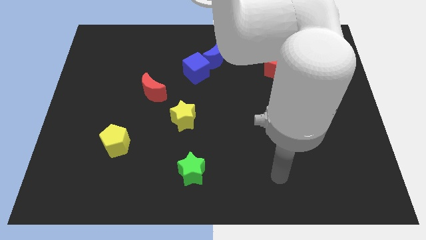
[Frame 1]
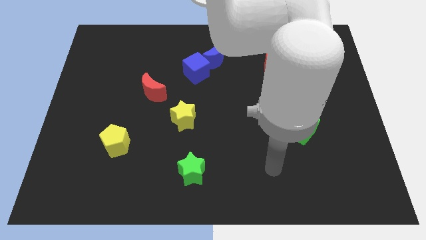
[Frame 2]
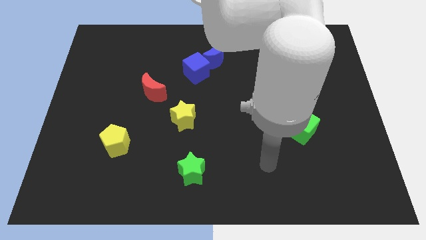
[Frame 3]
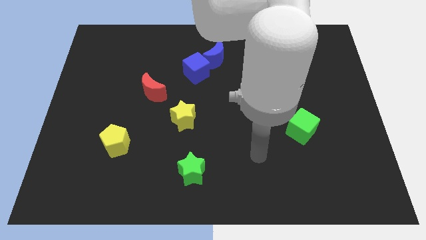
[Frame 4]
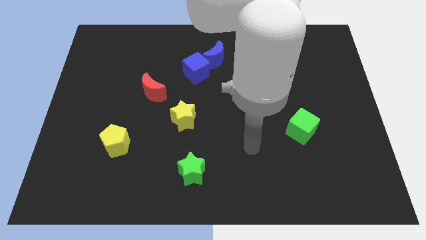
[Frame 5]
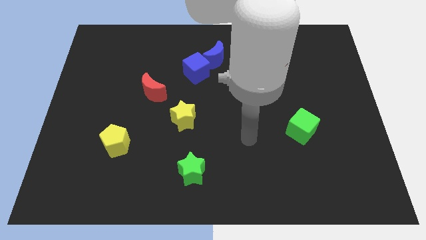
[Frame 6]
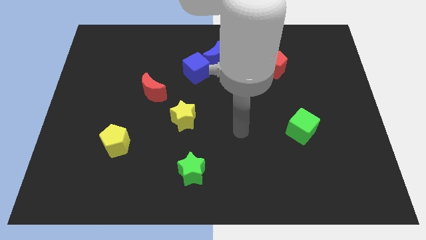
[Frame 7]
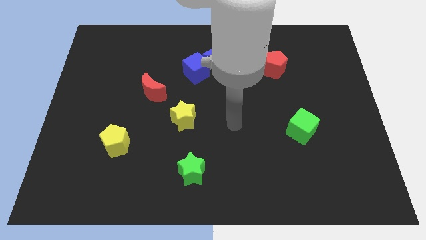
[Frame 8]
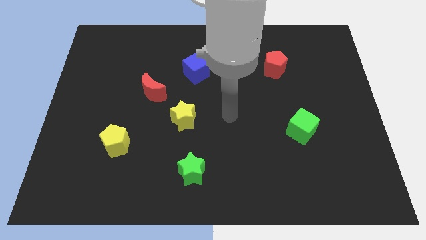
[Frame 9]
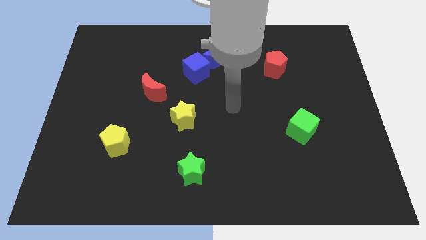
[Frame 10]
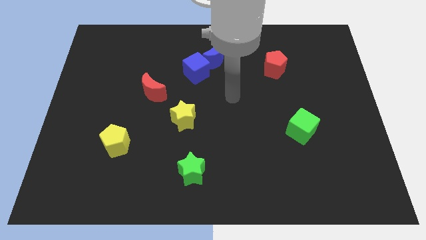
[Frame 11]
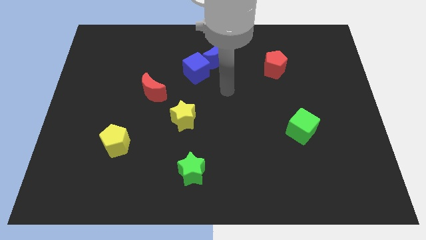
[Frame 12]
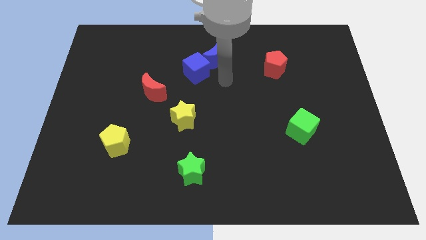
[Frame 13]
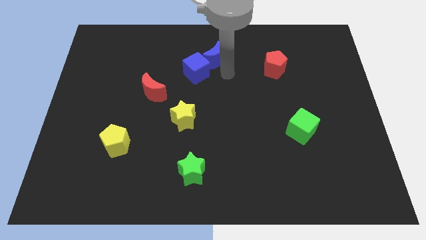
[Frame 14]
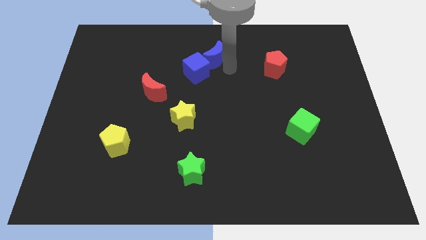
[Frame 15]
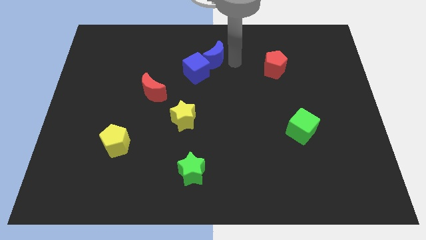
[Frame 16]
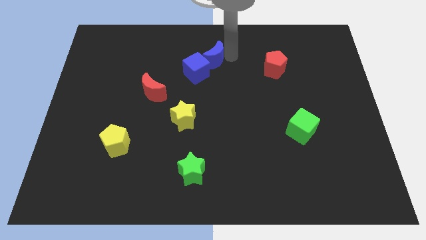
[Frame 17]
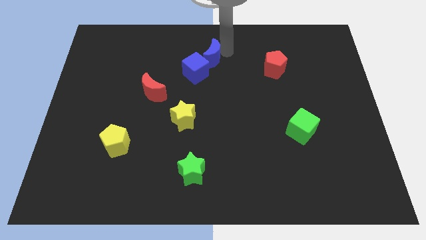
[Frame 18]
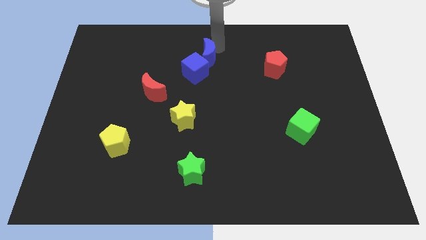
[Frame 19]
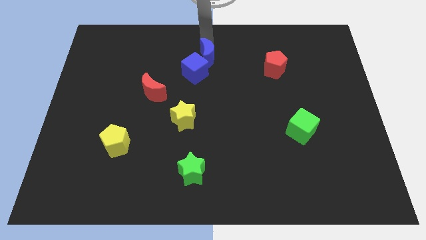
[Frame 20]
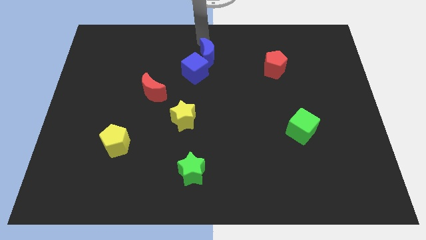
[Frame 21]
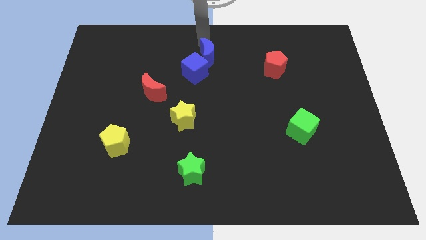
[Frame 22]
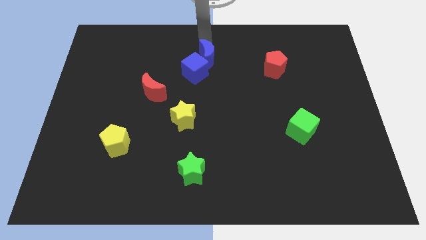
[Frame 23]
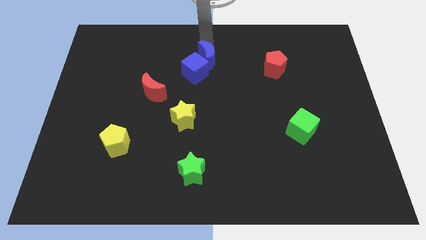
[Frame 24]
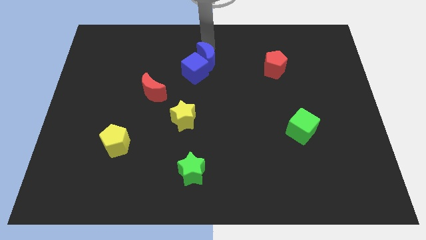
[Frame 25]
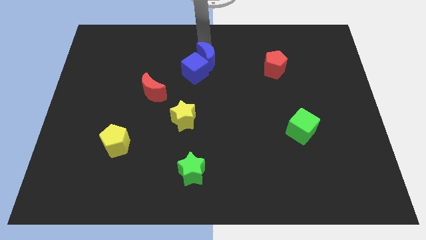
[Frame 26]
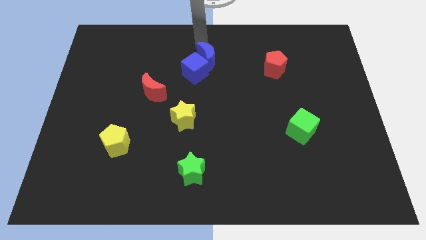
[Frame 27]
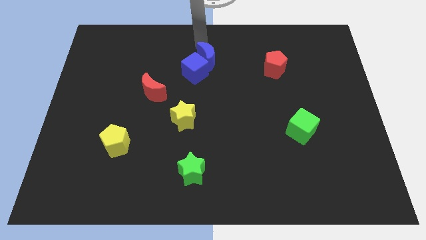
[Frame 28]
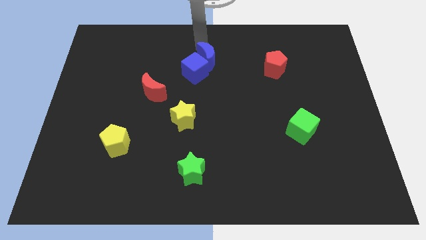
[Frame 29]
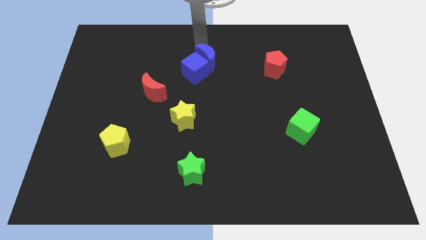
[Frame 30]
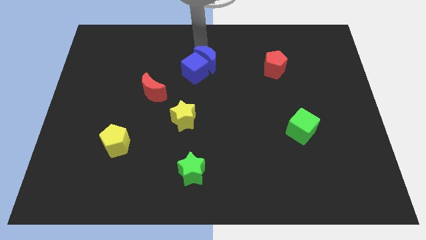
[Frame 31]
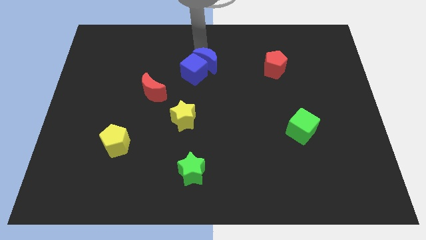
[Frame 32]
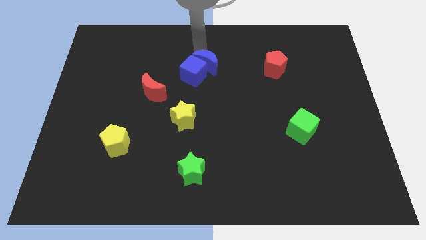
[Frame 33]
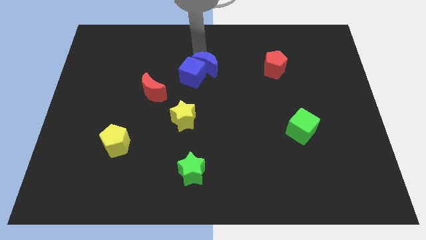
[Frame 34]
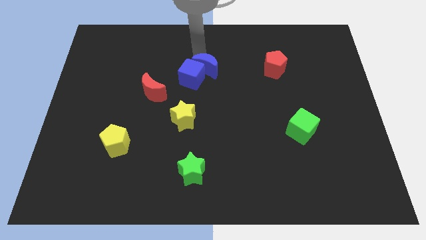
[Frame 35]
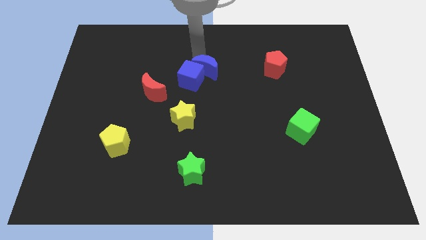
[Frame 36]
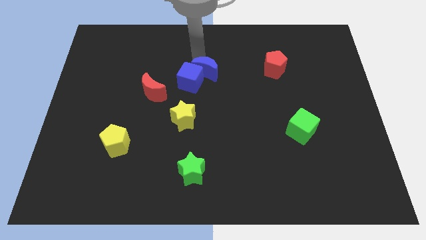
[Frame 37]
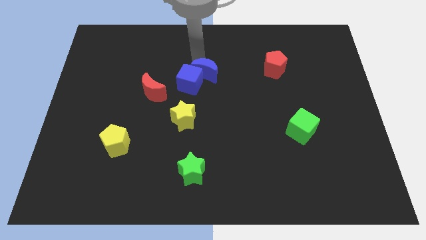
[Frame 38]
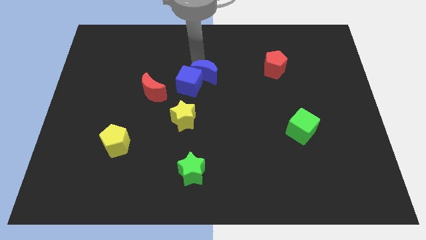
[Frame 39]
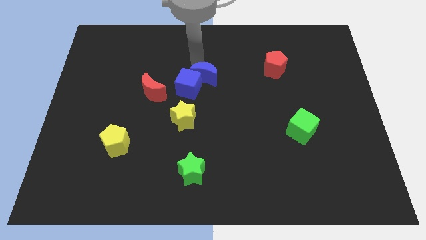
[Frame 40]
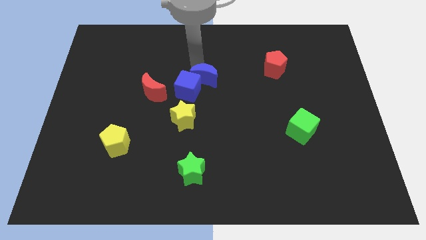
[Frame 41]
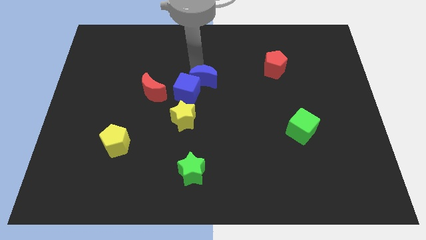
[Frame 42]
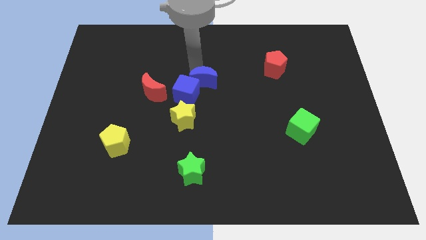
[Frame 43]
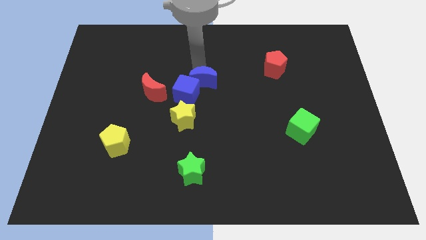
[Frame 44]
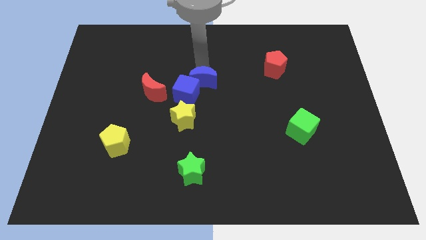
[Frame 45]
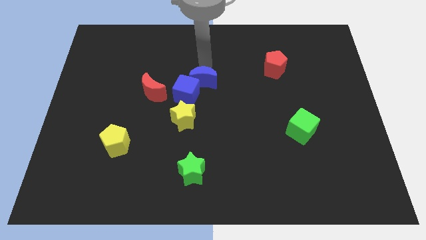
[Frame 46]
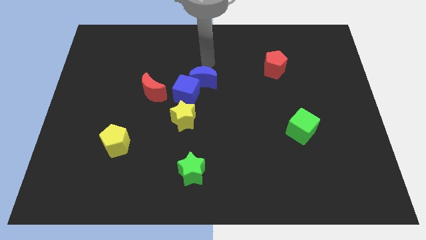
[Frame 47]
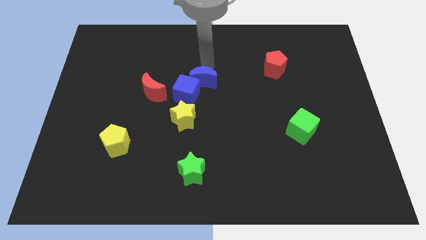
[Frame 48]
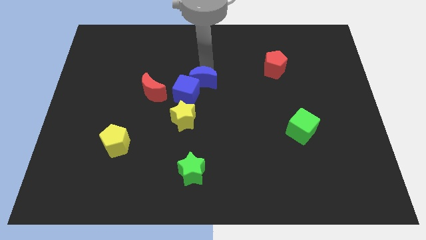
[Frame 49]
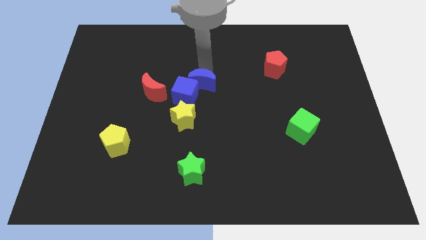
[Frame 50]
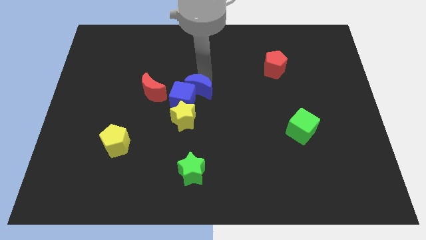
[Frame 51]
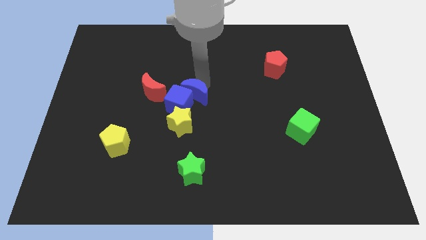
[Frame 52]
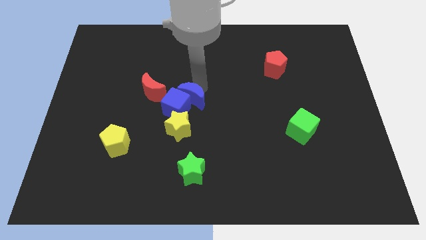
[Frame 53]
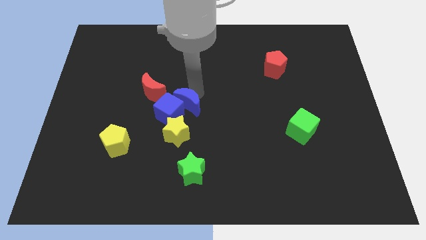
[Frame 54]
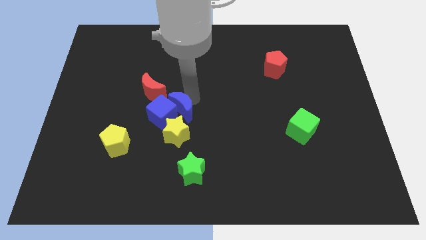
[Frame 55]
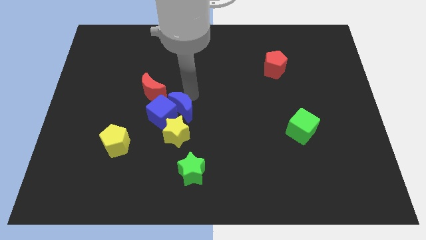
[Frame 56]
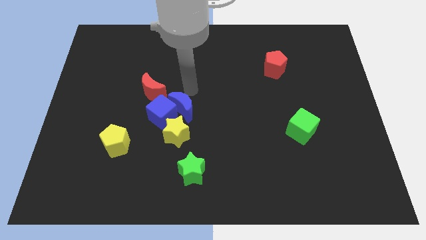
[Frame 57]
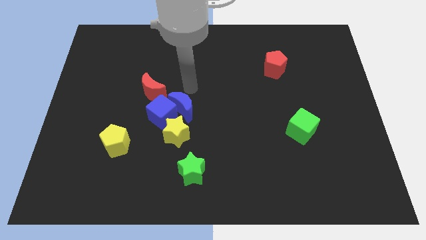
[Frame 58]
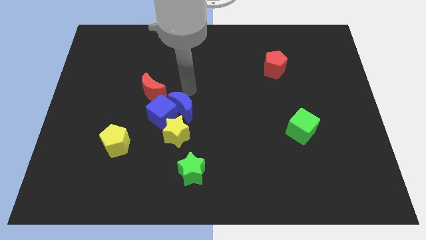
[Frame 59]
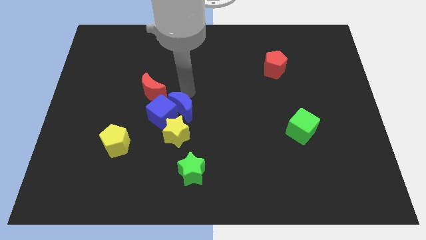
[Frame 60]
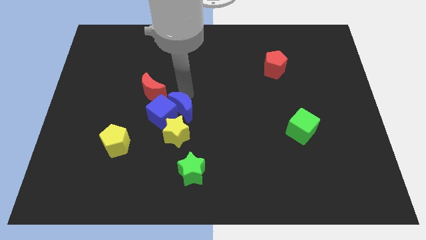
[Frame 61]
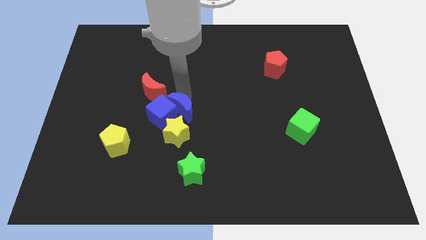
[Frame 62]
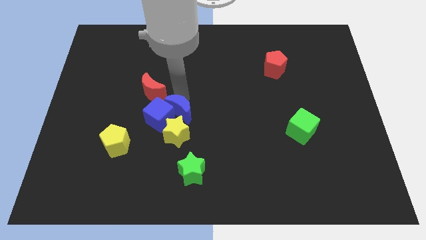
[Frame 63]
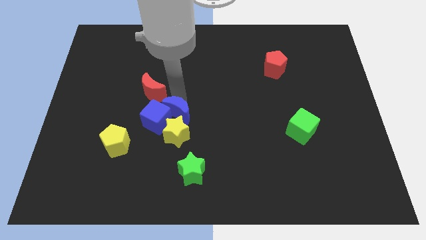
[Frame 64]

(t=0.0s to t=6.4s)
slide the blue moon to the yellow star
